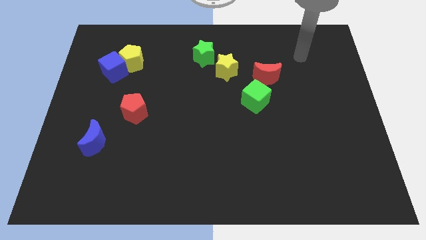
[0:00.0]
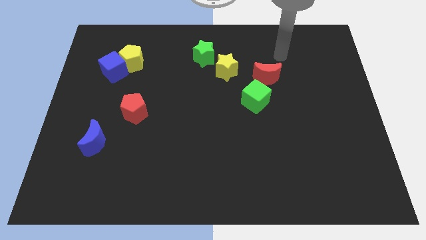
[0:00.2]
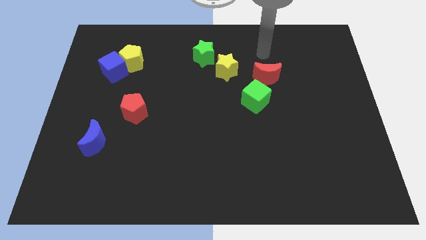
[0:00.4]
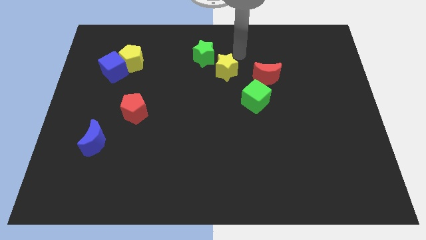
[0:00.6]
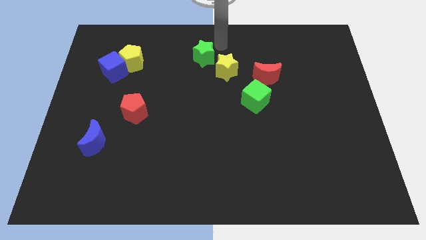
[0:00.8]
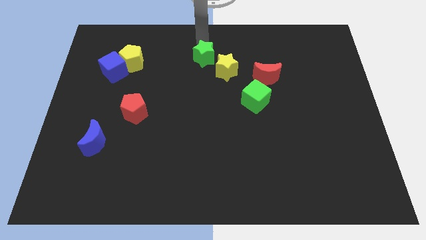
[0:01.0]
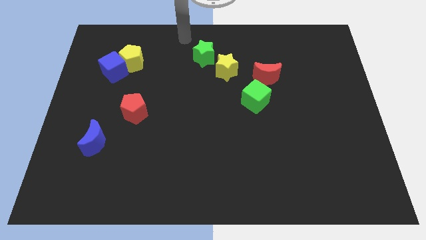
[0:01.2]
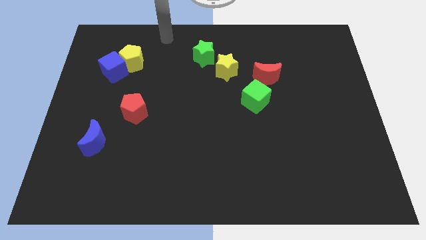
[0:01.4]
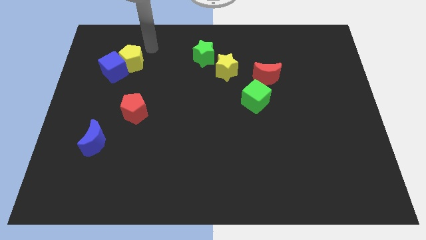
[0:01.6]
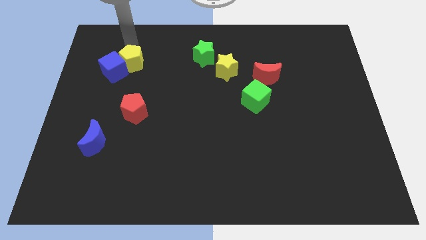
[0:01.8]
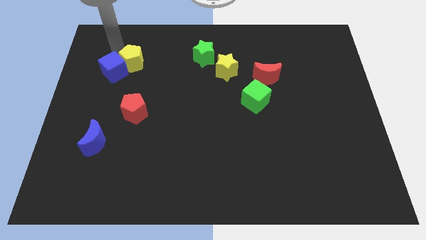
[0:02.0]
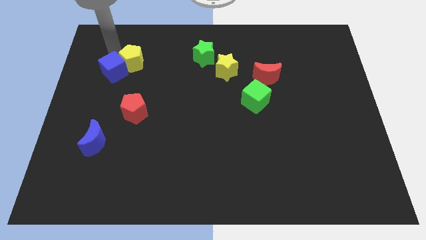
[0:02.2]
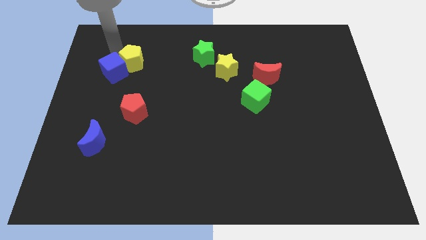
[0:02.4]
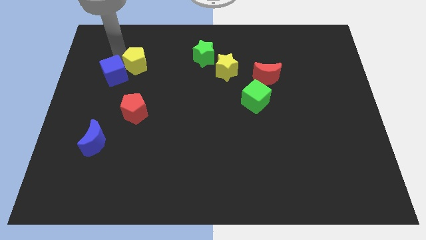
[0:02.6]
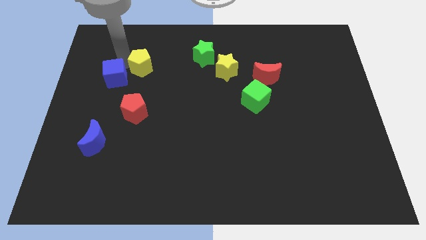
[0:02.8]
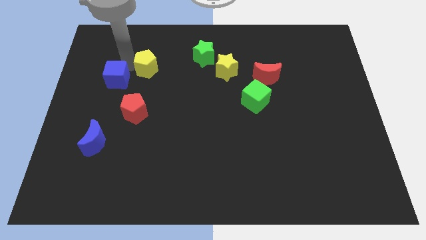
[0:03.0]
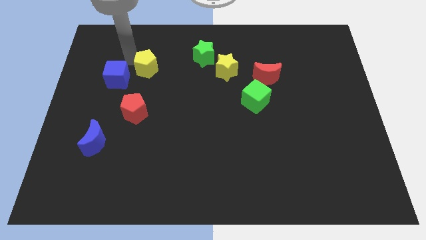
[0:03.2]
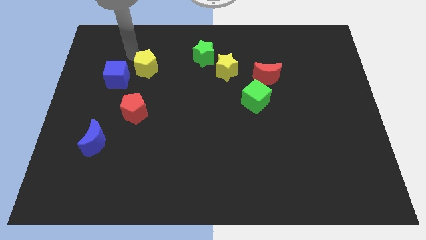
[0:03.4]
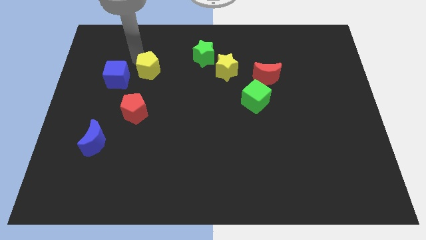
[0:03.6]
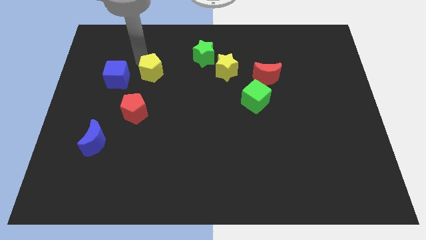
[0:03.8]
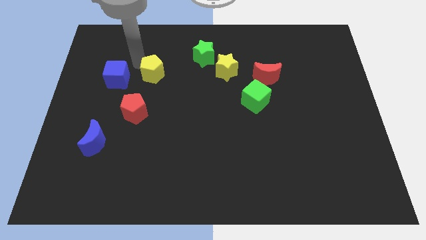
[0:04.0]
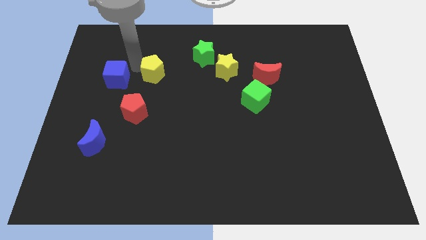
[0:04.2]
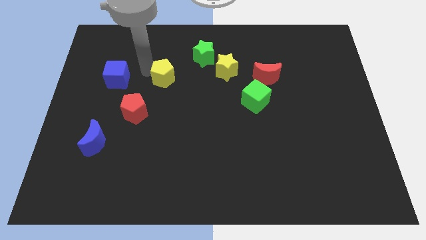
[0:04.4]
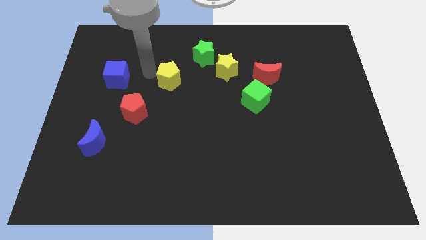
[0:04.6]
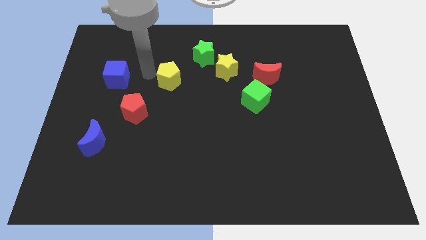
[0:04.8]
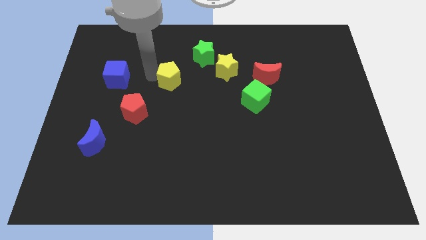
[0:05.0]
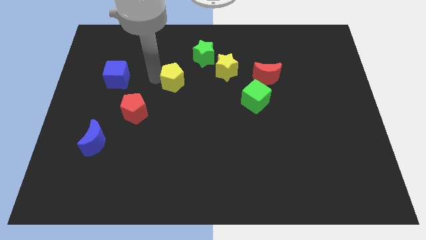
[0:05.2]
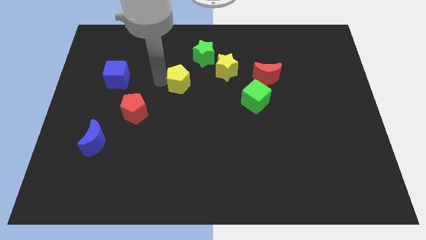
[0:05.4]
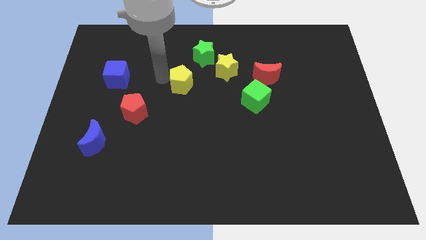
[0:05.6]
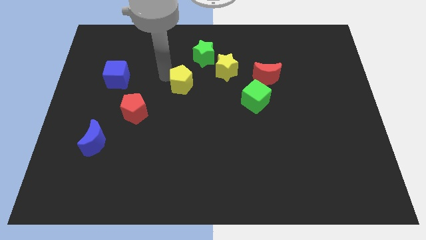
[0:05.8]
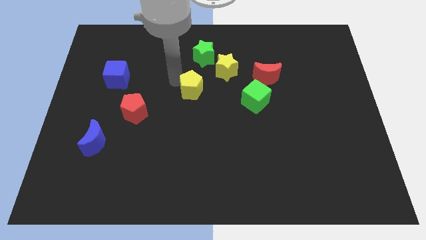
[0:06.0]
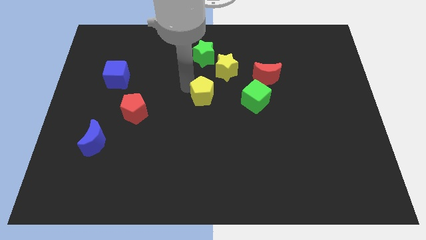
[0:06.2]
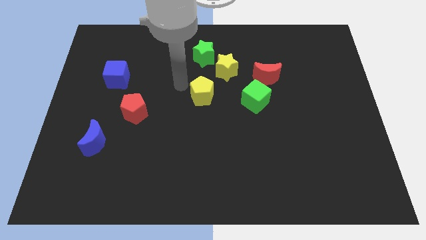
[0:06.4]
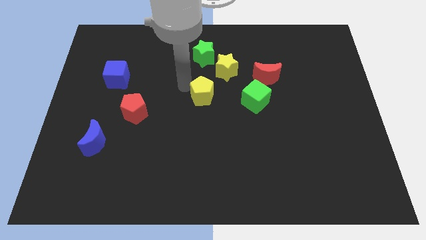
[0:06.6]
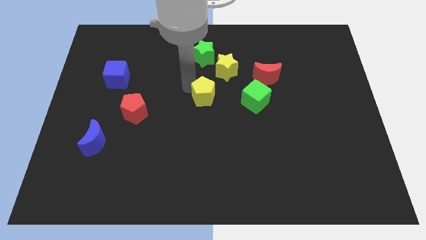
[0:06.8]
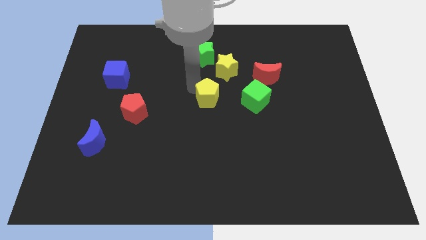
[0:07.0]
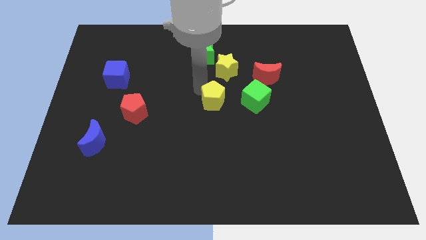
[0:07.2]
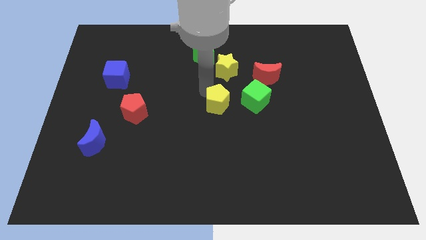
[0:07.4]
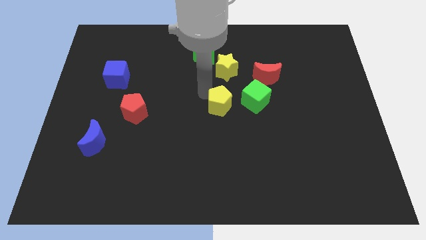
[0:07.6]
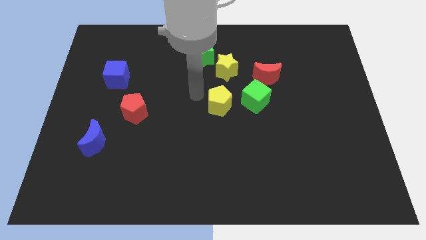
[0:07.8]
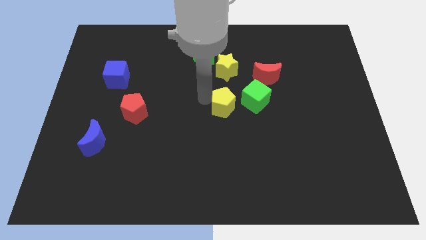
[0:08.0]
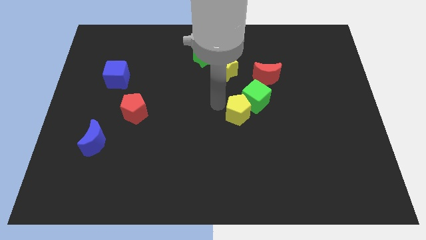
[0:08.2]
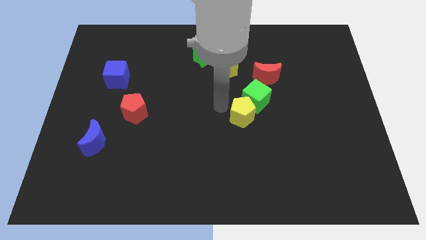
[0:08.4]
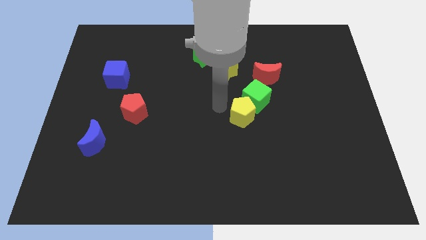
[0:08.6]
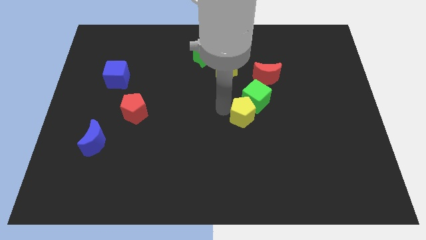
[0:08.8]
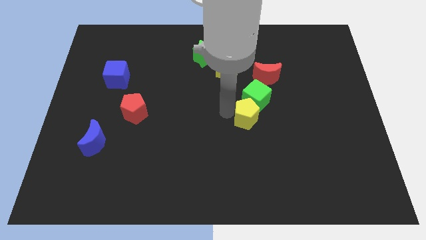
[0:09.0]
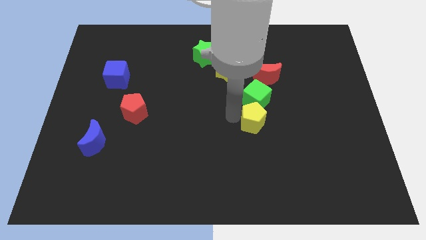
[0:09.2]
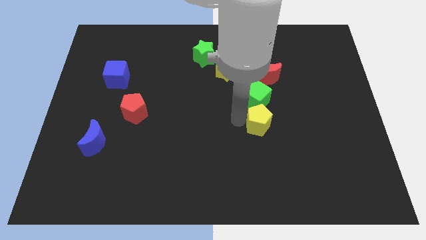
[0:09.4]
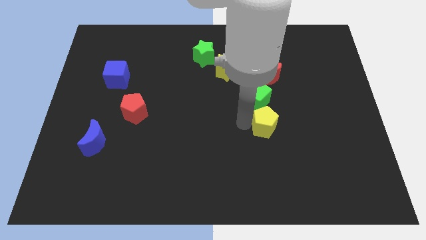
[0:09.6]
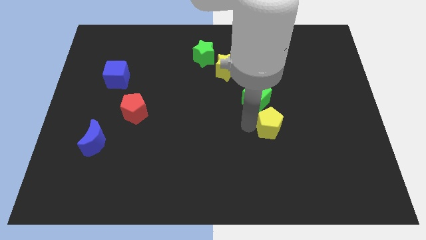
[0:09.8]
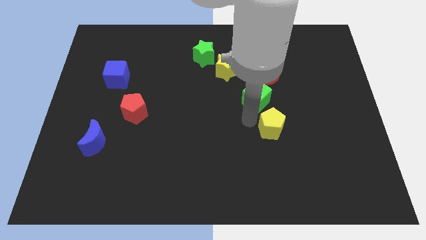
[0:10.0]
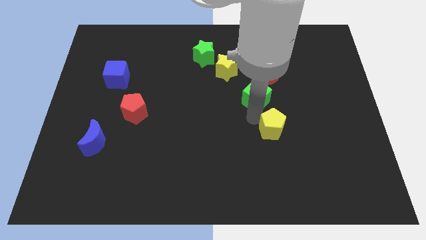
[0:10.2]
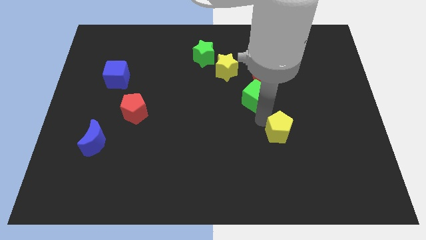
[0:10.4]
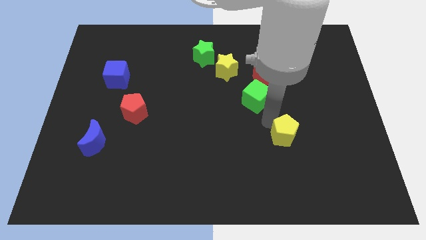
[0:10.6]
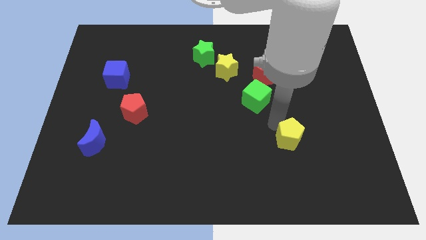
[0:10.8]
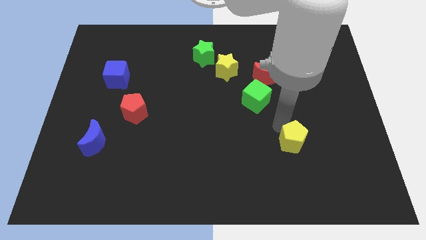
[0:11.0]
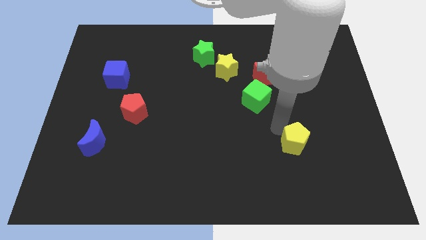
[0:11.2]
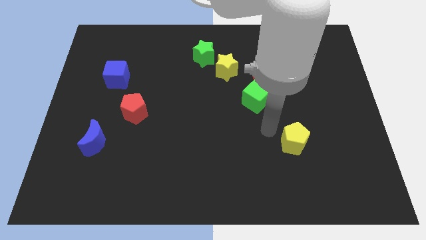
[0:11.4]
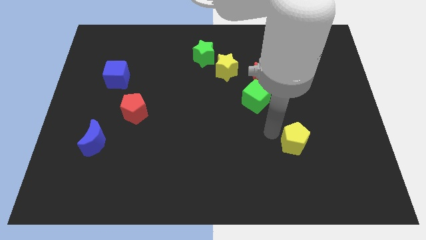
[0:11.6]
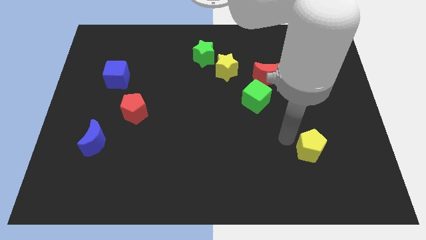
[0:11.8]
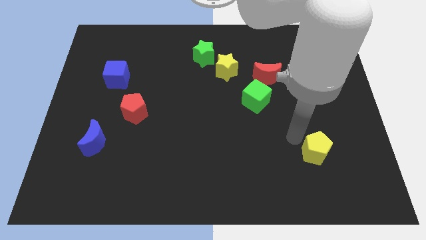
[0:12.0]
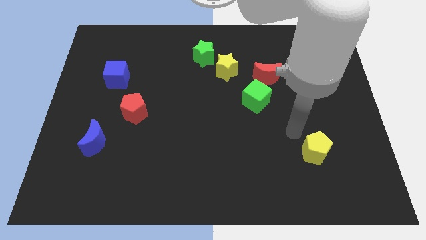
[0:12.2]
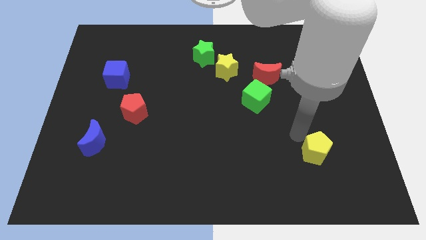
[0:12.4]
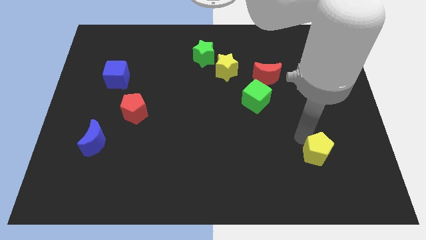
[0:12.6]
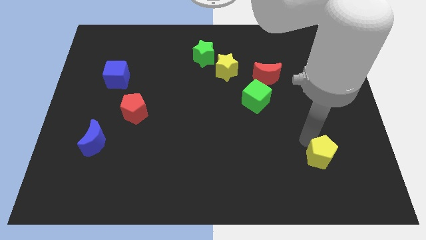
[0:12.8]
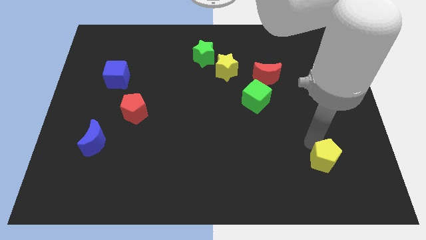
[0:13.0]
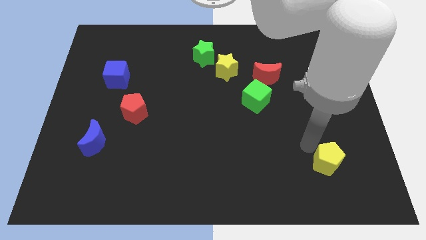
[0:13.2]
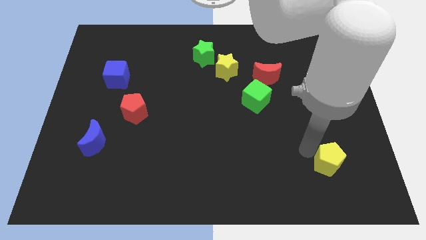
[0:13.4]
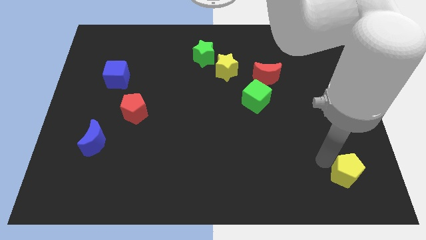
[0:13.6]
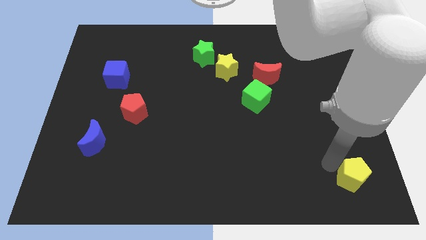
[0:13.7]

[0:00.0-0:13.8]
push the yellow pentagon to the bottom right
